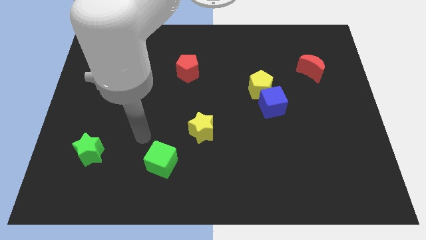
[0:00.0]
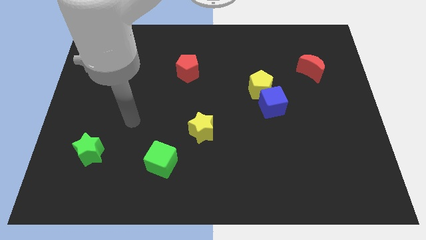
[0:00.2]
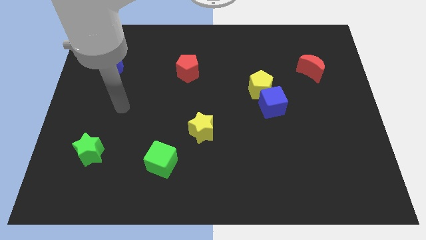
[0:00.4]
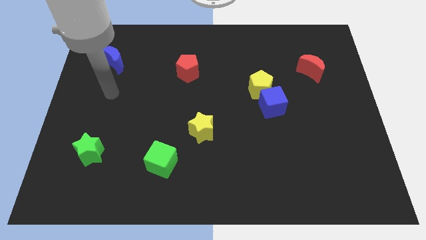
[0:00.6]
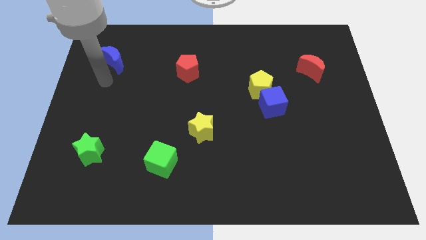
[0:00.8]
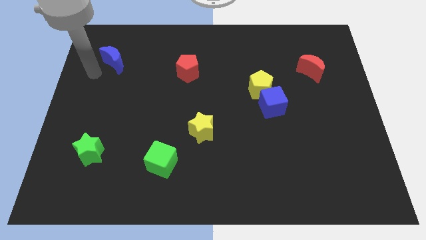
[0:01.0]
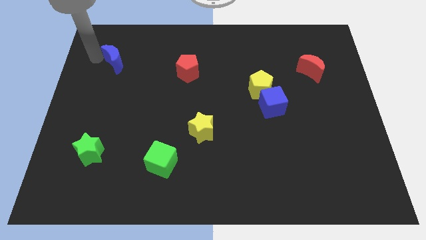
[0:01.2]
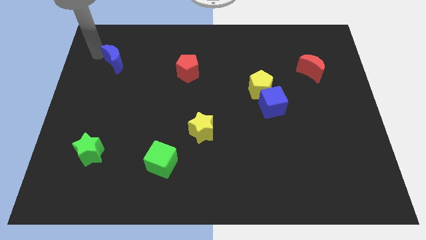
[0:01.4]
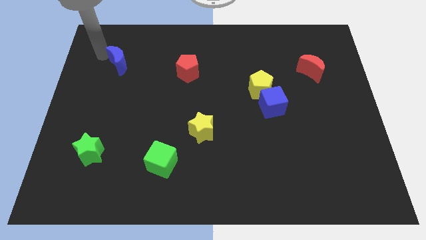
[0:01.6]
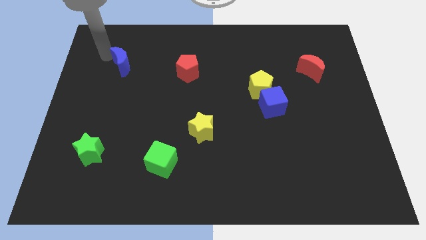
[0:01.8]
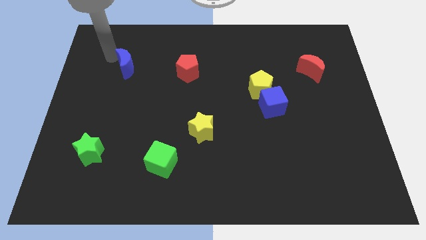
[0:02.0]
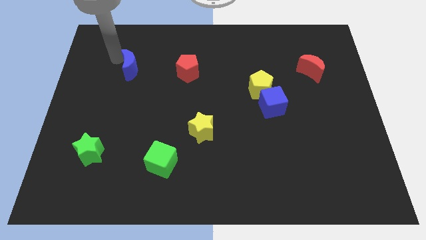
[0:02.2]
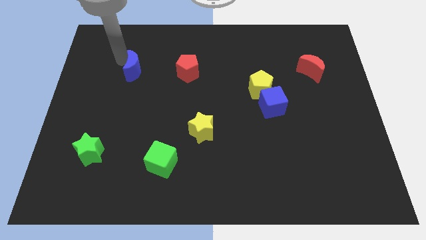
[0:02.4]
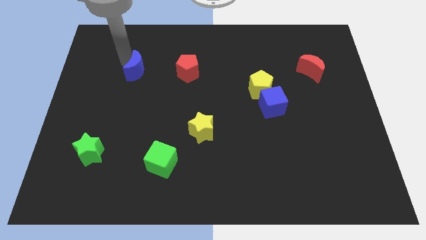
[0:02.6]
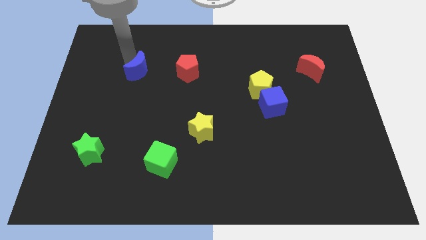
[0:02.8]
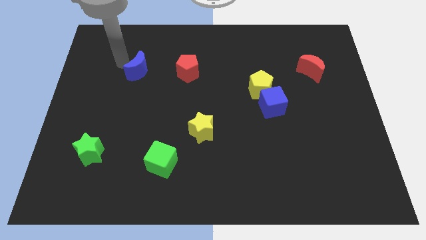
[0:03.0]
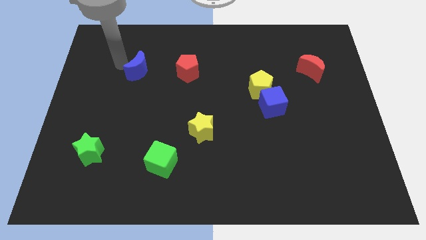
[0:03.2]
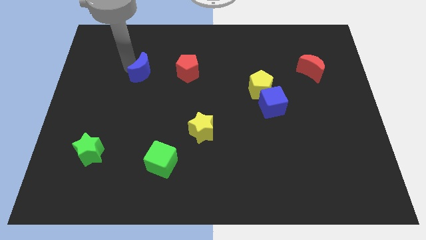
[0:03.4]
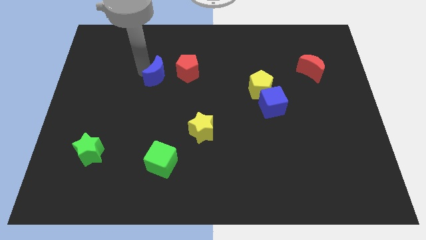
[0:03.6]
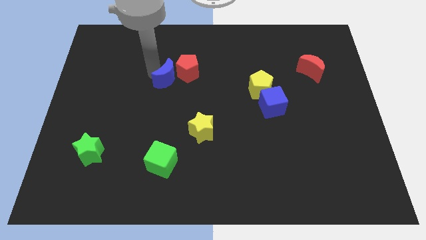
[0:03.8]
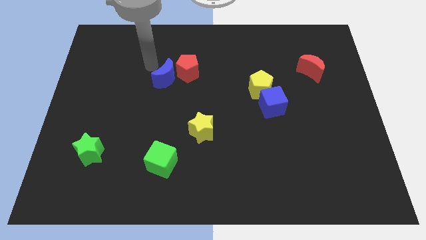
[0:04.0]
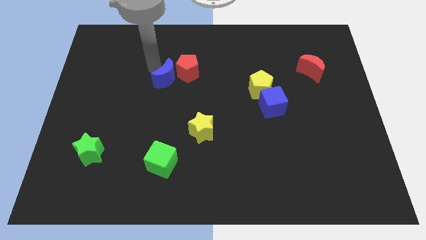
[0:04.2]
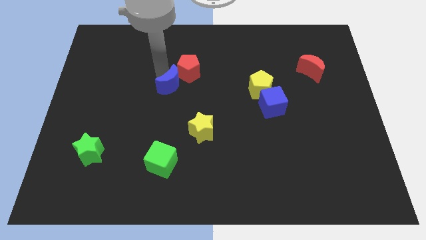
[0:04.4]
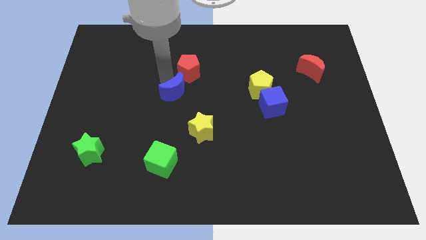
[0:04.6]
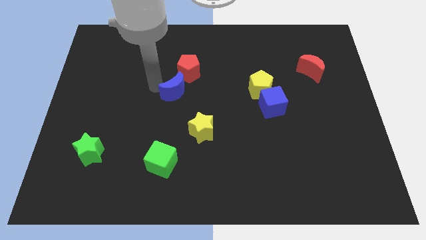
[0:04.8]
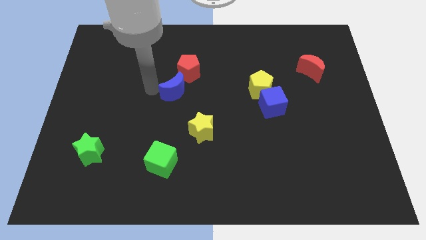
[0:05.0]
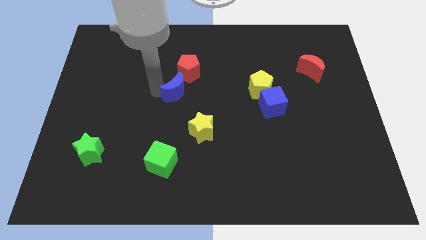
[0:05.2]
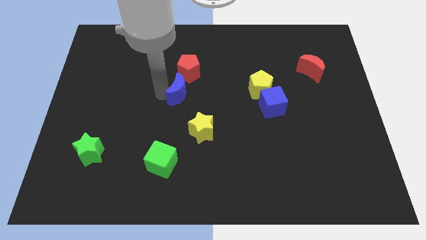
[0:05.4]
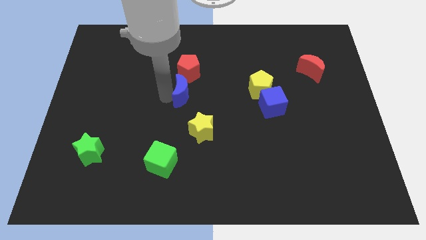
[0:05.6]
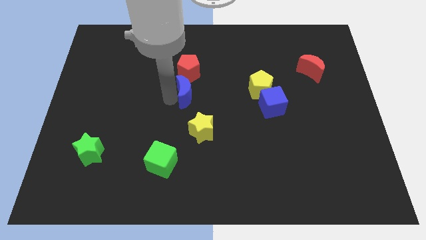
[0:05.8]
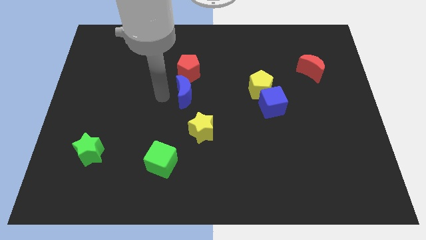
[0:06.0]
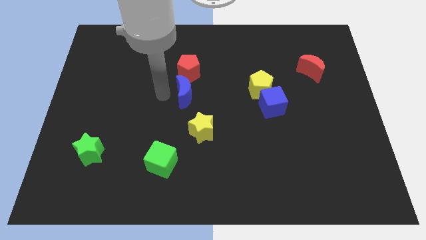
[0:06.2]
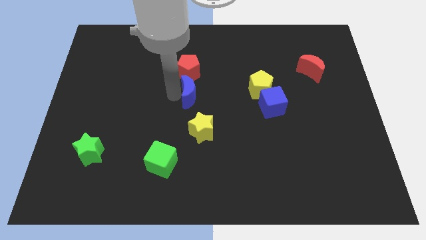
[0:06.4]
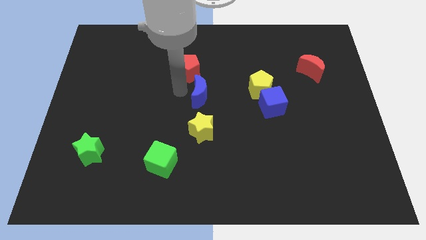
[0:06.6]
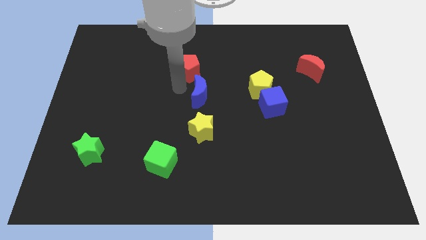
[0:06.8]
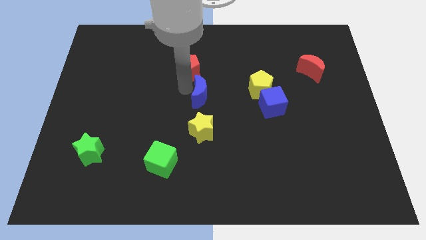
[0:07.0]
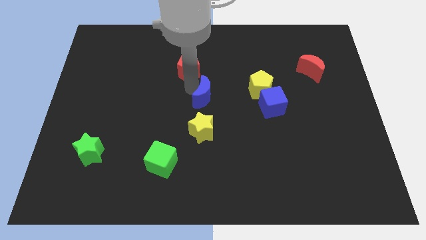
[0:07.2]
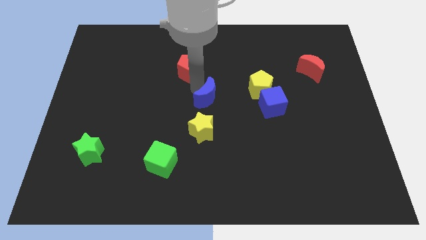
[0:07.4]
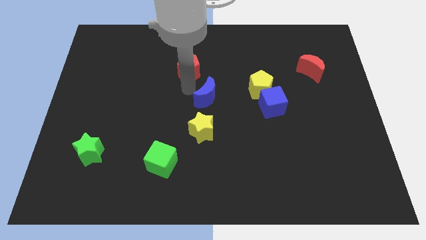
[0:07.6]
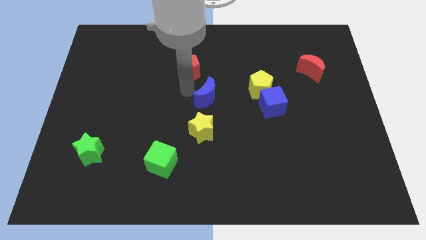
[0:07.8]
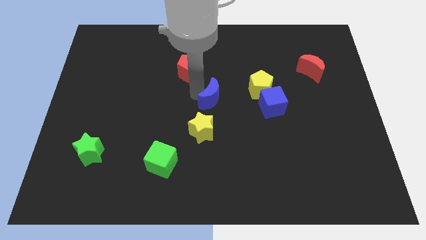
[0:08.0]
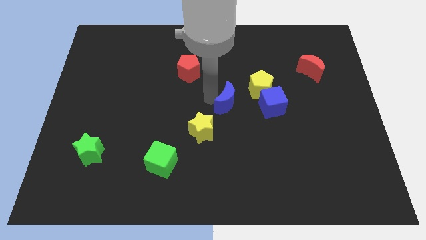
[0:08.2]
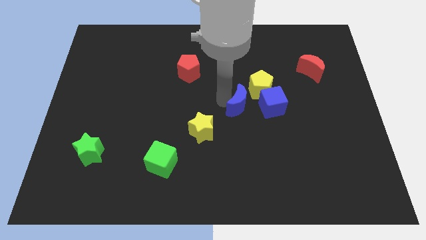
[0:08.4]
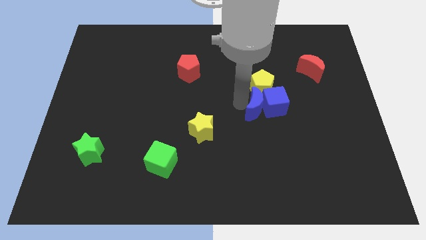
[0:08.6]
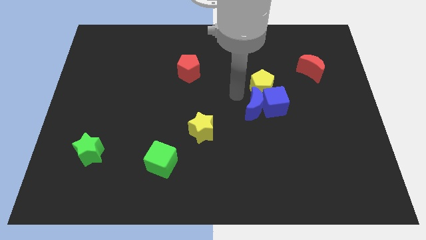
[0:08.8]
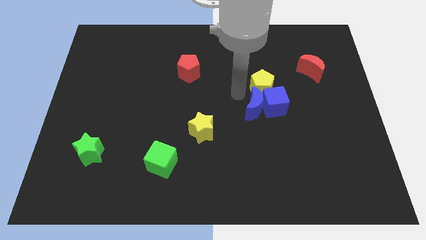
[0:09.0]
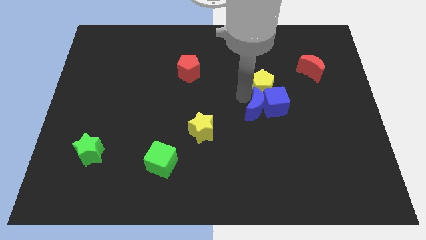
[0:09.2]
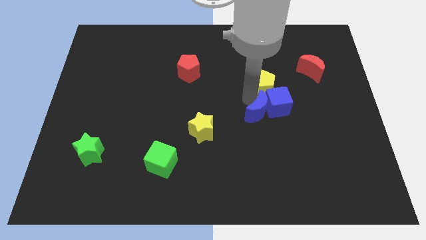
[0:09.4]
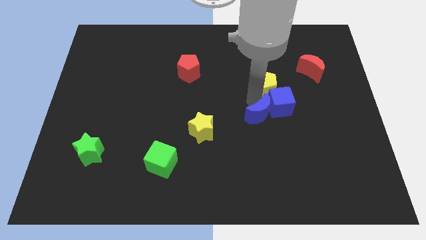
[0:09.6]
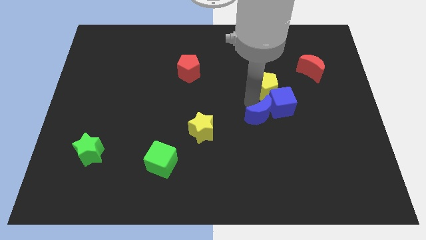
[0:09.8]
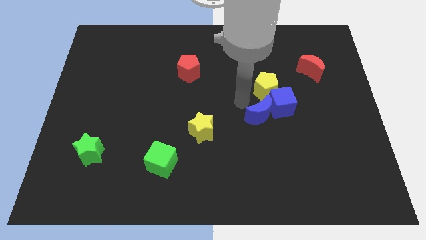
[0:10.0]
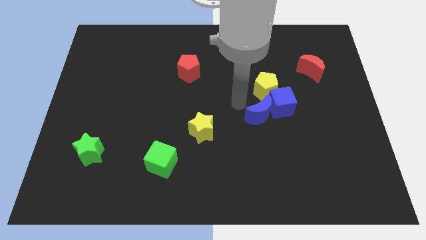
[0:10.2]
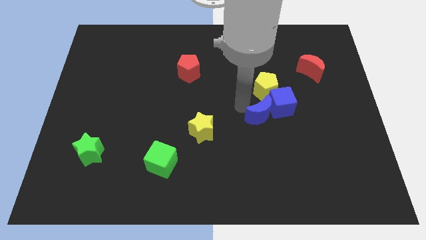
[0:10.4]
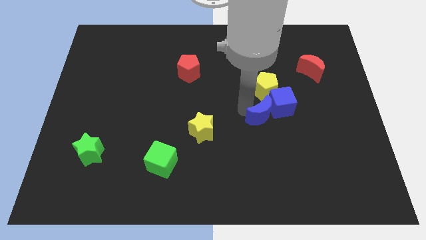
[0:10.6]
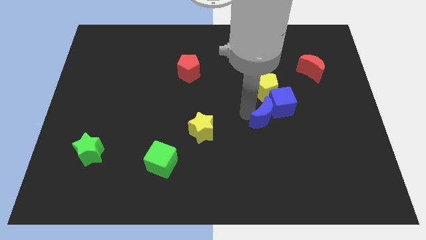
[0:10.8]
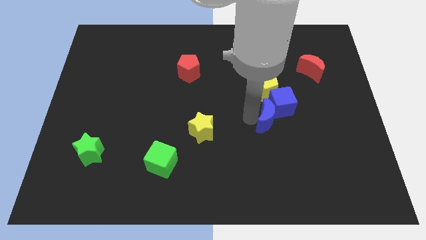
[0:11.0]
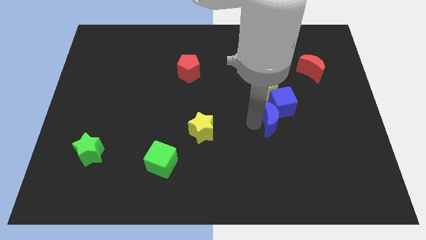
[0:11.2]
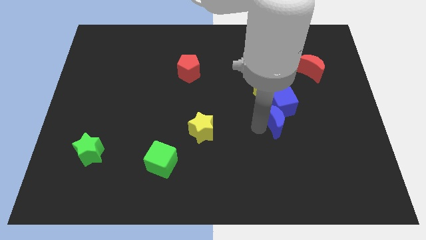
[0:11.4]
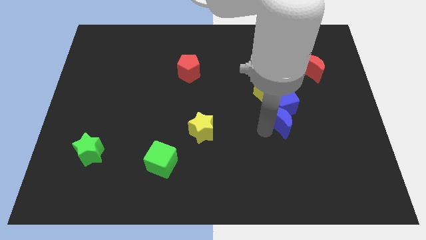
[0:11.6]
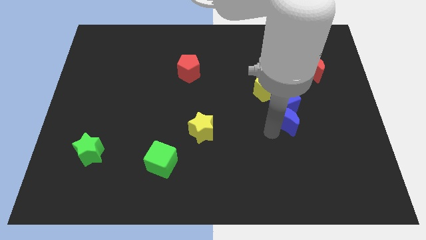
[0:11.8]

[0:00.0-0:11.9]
put the blue moon to the bottom right side of the yellow pentagon

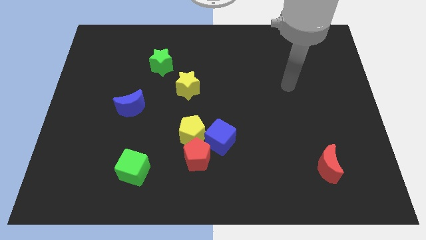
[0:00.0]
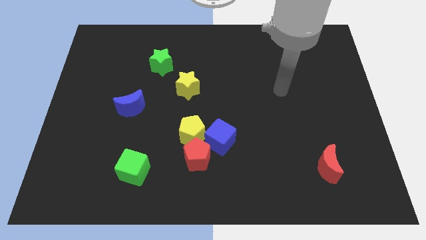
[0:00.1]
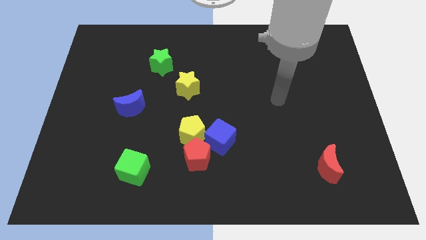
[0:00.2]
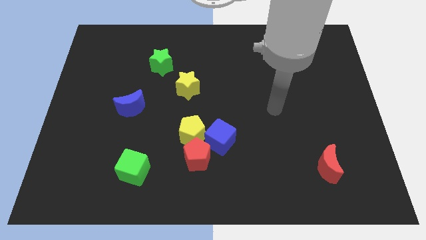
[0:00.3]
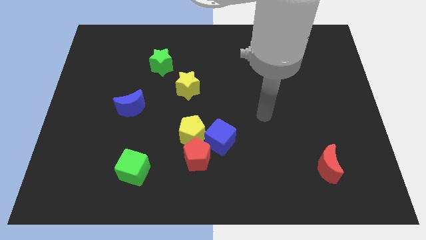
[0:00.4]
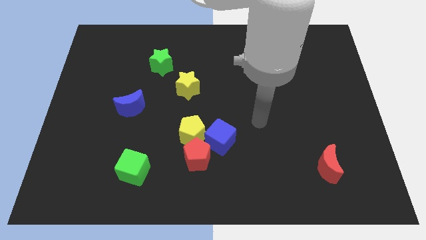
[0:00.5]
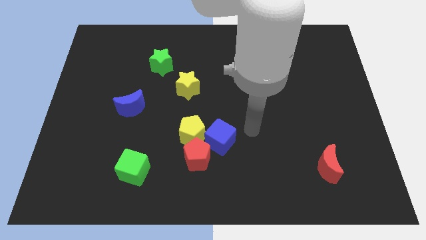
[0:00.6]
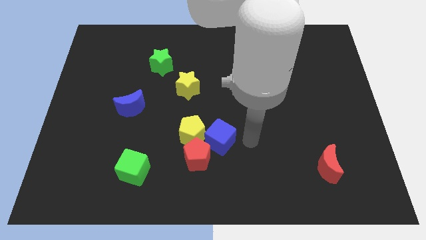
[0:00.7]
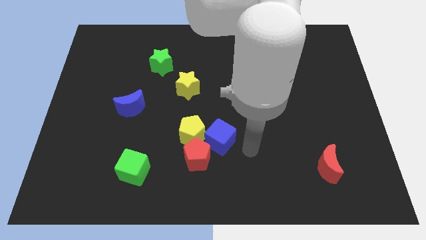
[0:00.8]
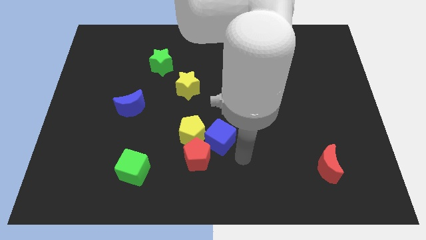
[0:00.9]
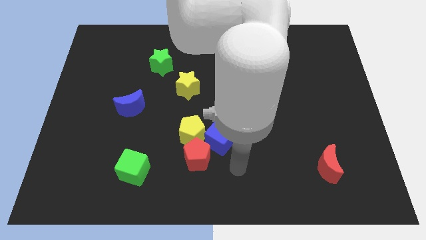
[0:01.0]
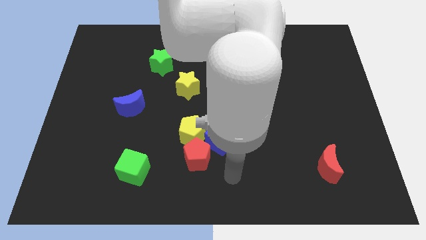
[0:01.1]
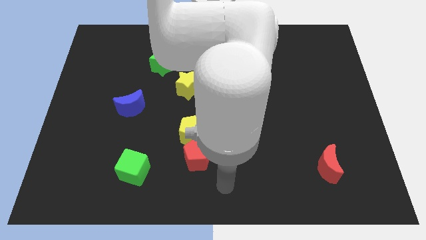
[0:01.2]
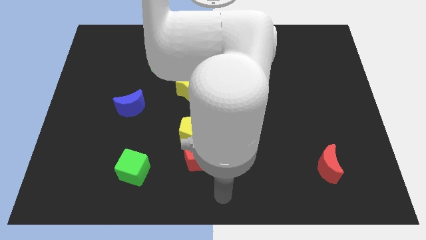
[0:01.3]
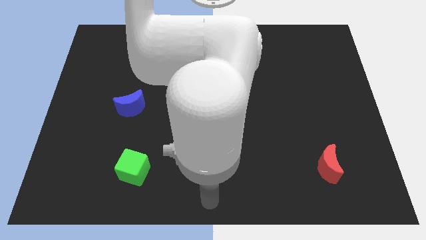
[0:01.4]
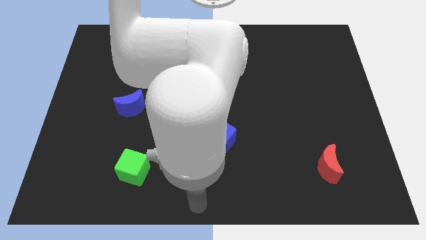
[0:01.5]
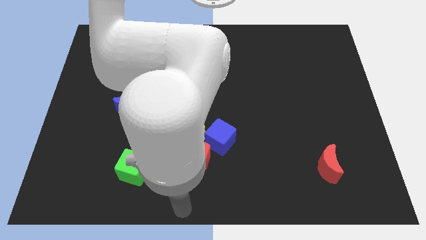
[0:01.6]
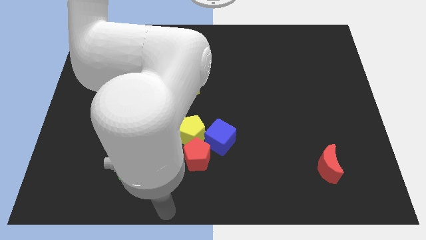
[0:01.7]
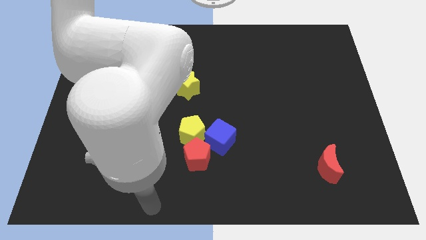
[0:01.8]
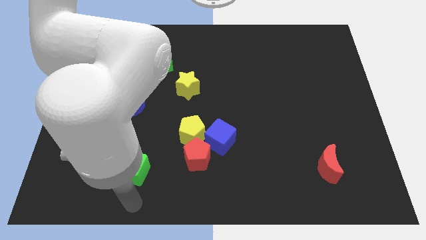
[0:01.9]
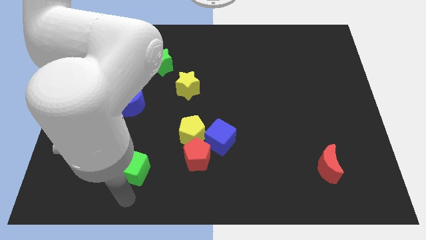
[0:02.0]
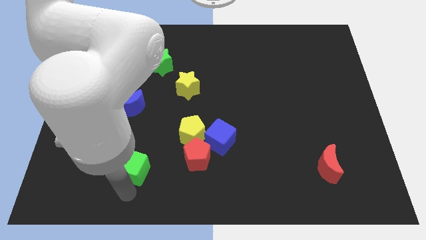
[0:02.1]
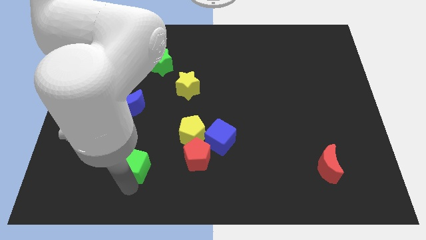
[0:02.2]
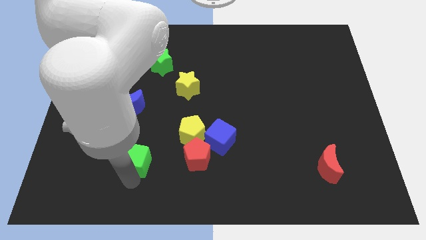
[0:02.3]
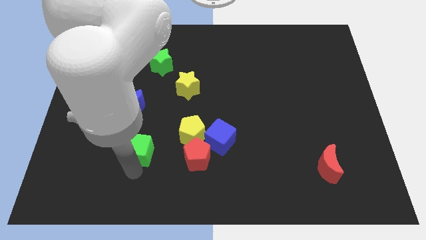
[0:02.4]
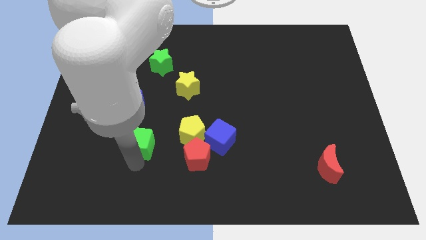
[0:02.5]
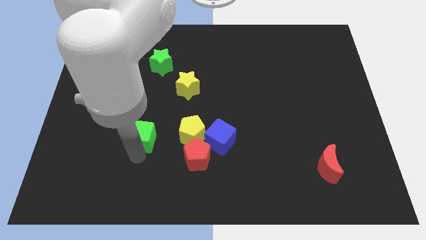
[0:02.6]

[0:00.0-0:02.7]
slide the green cube diagonally down and to the right of the blue moon
